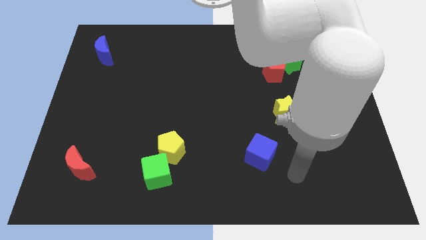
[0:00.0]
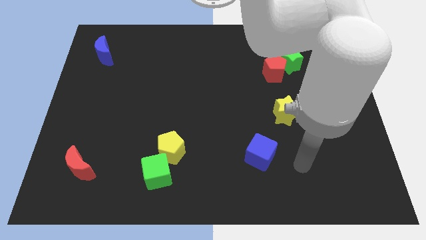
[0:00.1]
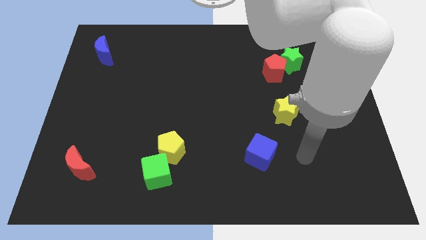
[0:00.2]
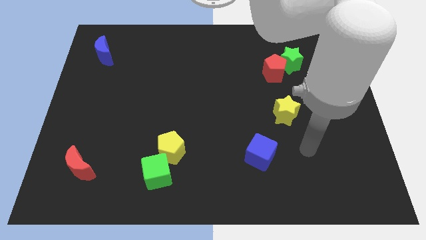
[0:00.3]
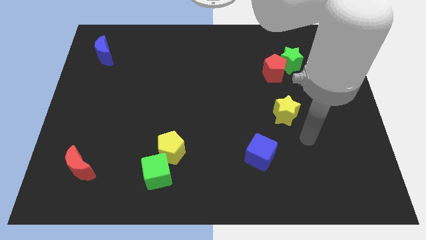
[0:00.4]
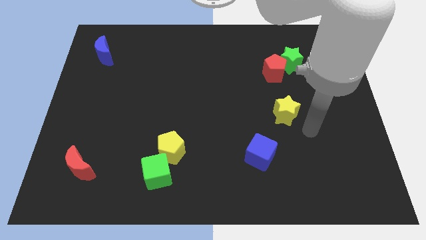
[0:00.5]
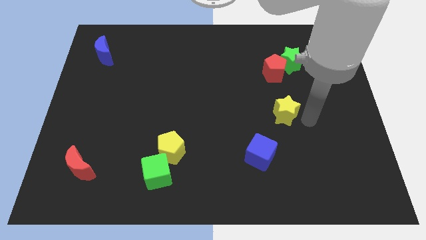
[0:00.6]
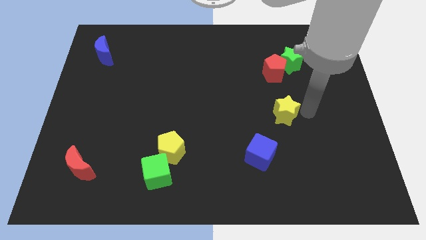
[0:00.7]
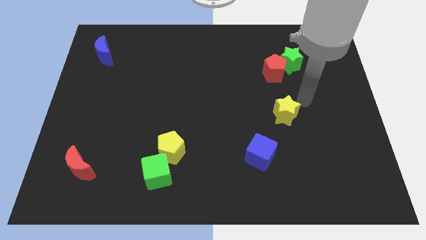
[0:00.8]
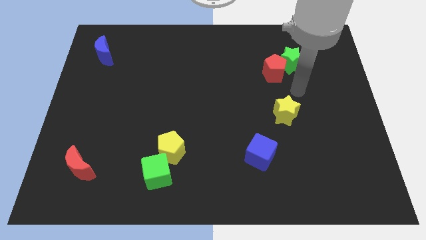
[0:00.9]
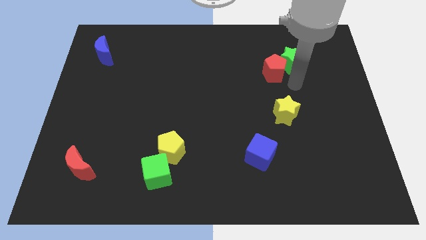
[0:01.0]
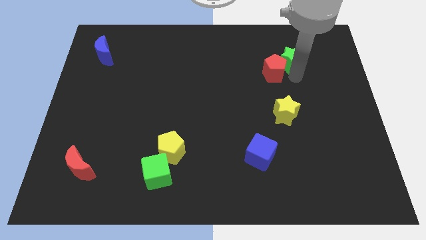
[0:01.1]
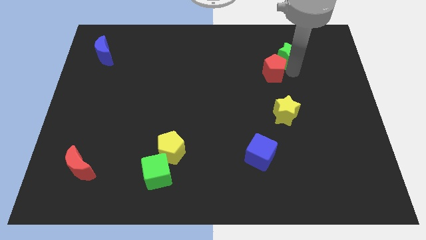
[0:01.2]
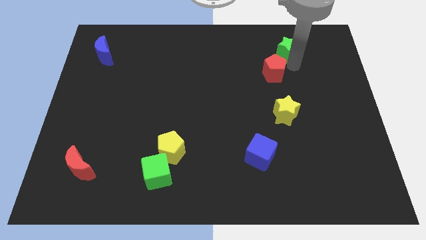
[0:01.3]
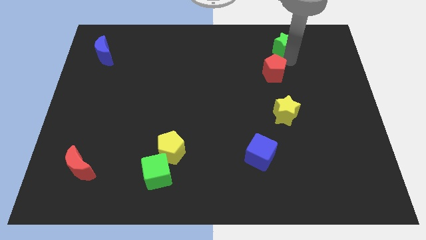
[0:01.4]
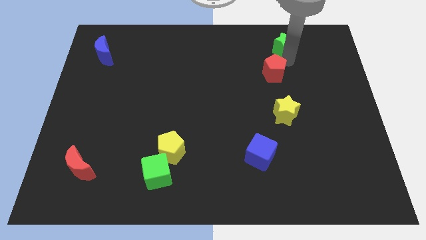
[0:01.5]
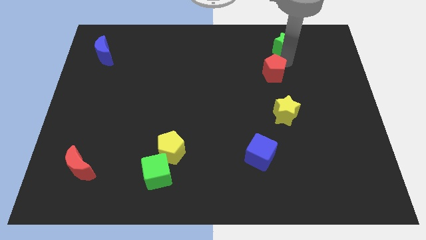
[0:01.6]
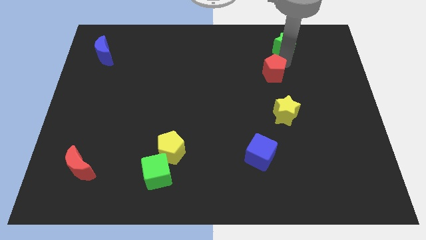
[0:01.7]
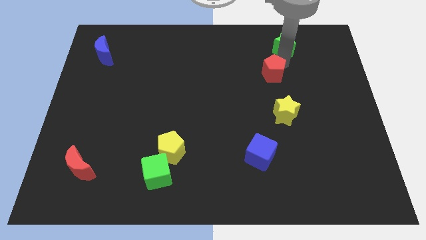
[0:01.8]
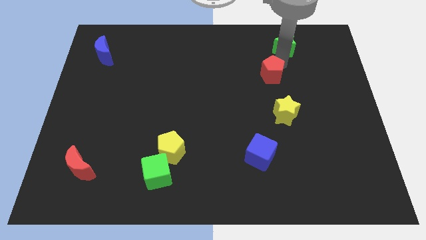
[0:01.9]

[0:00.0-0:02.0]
separate the red pentagon from the green star

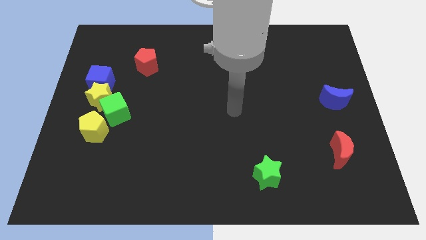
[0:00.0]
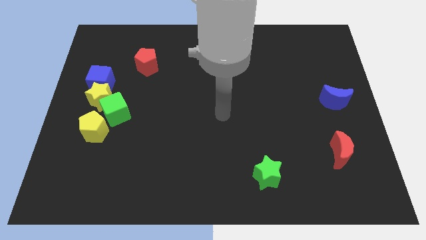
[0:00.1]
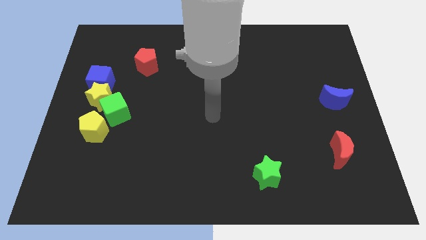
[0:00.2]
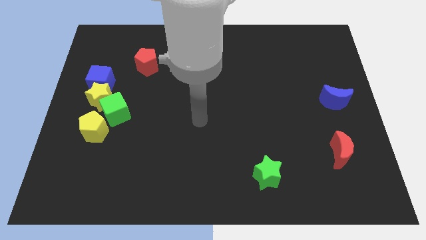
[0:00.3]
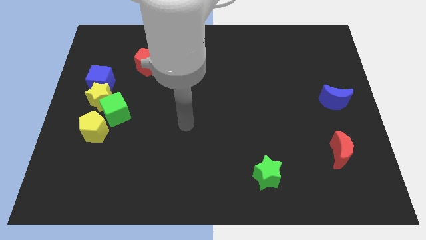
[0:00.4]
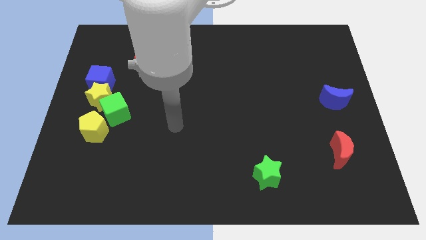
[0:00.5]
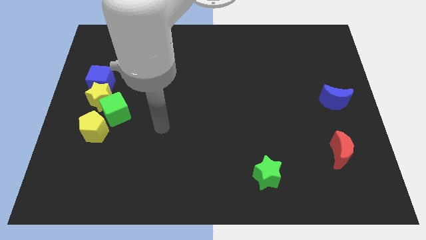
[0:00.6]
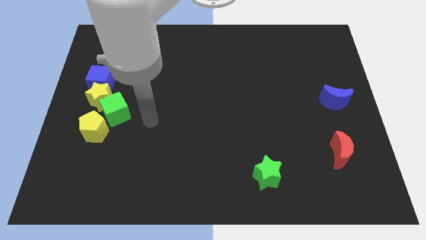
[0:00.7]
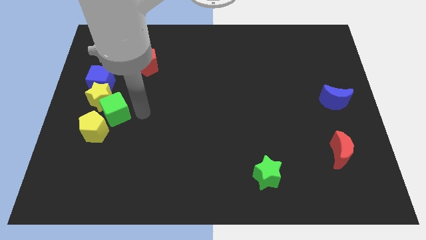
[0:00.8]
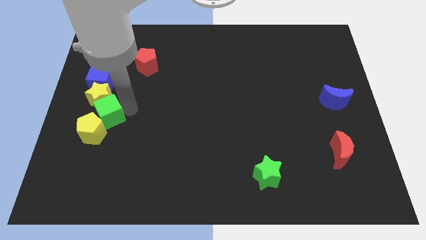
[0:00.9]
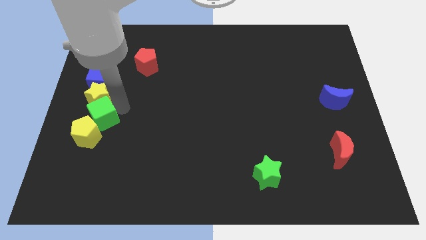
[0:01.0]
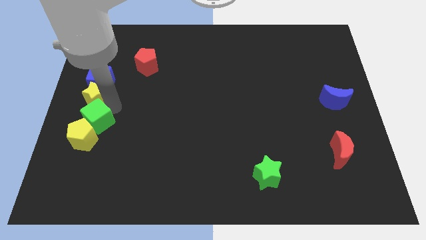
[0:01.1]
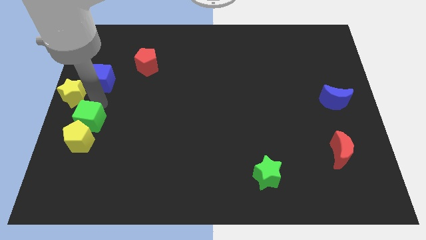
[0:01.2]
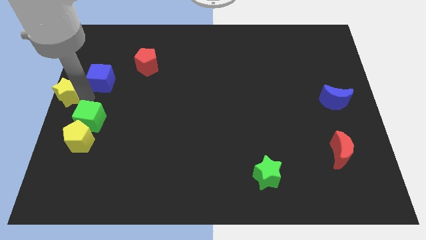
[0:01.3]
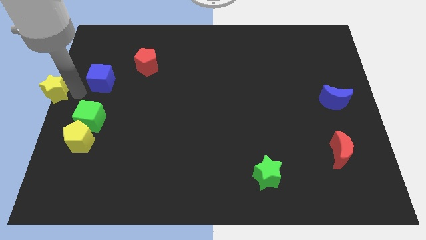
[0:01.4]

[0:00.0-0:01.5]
pull the blue cube apart from the yellow star

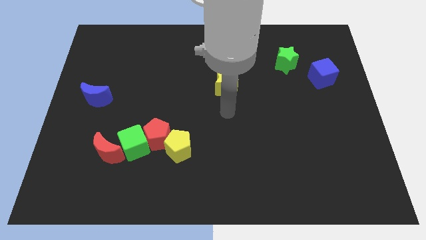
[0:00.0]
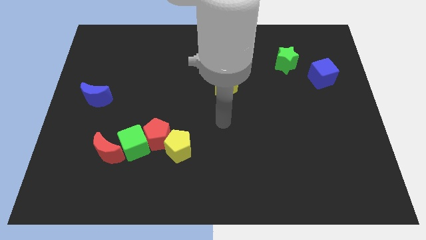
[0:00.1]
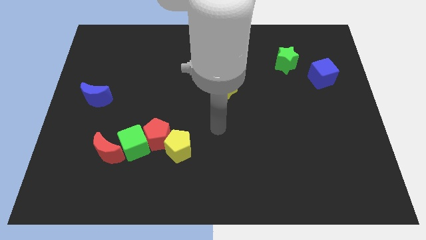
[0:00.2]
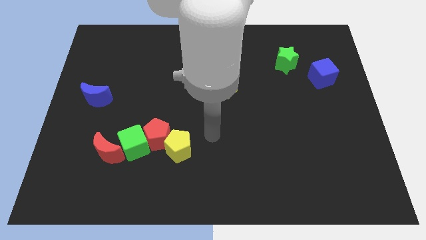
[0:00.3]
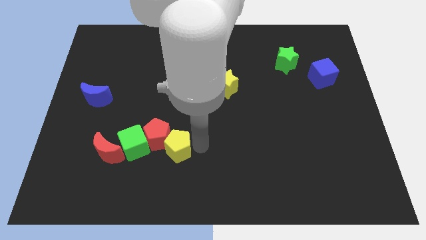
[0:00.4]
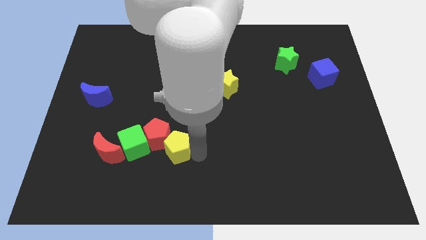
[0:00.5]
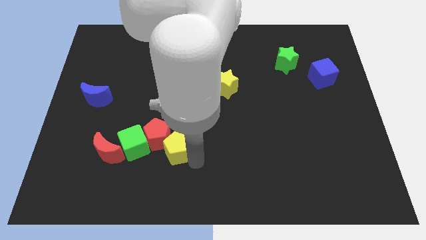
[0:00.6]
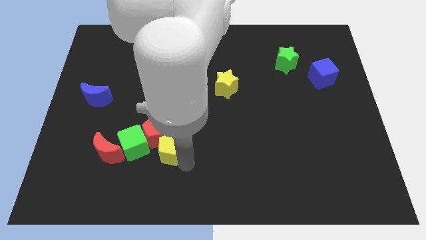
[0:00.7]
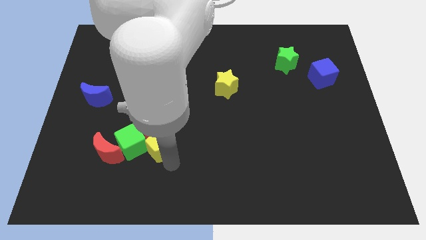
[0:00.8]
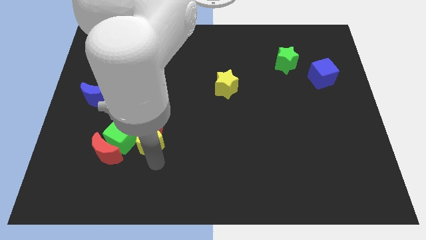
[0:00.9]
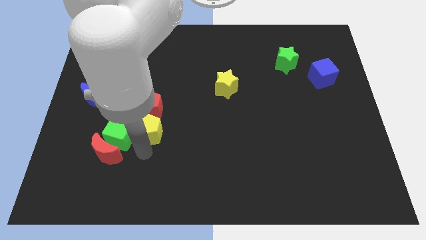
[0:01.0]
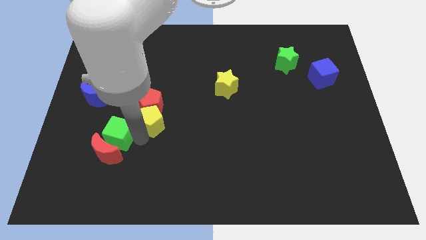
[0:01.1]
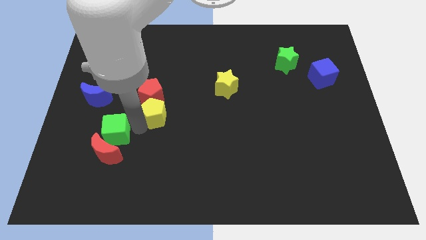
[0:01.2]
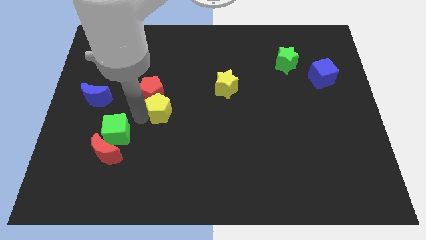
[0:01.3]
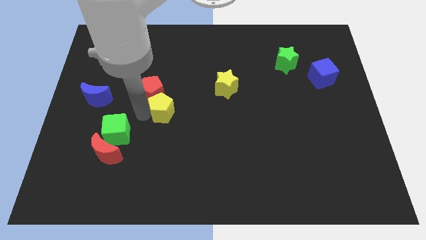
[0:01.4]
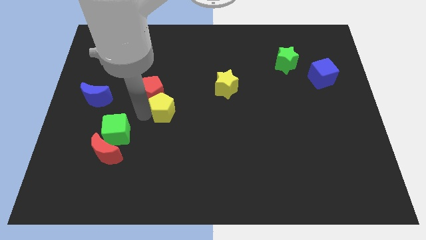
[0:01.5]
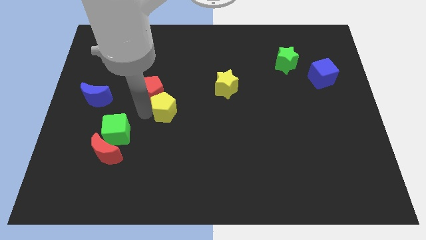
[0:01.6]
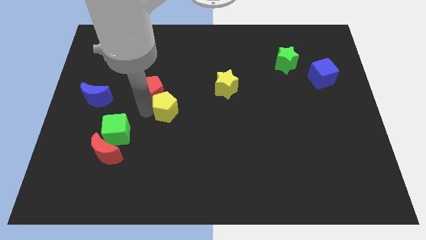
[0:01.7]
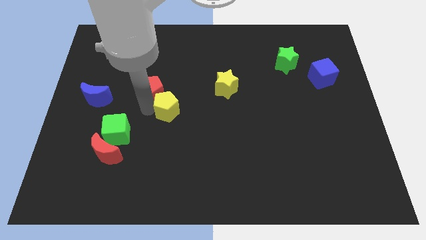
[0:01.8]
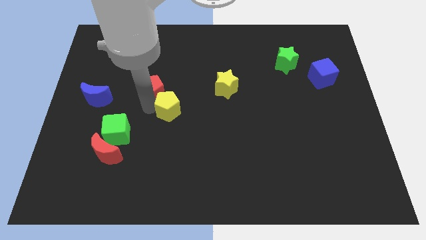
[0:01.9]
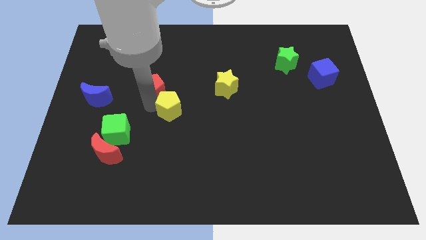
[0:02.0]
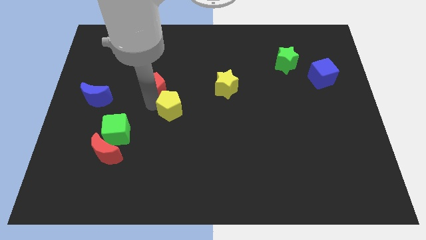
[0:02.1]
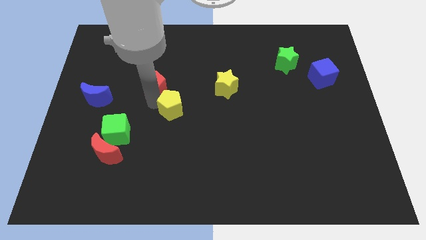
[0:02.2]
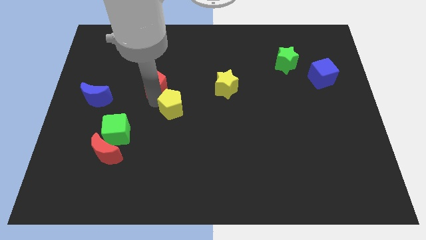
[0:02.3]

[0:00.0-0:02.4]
separate the red pentagon from the yellow pentagon and green cube

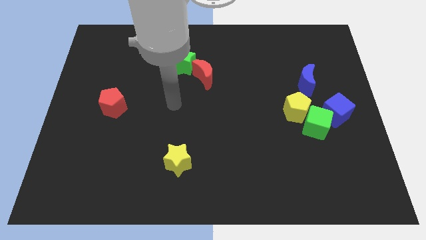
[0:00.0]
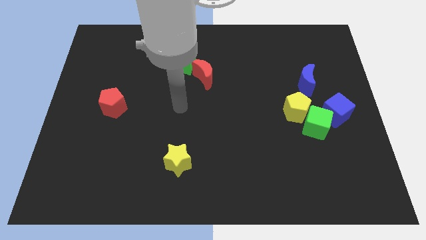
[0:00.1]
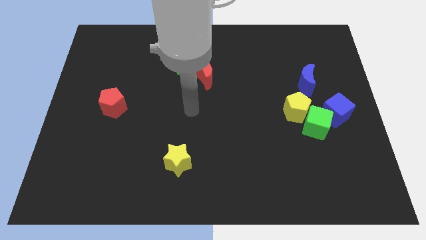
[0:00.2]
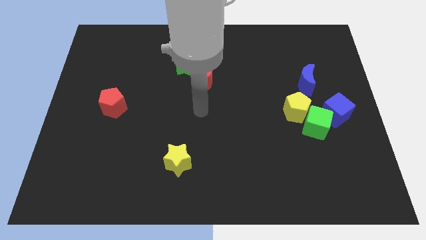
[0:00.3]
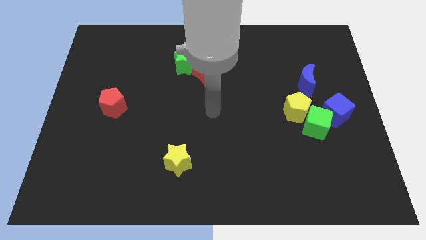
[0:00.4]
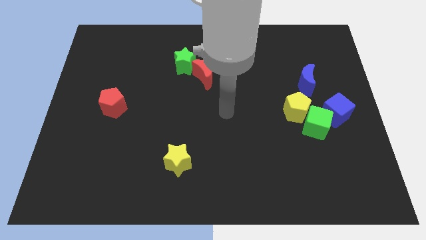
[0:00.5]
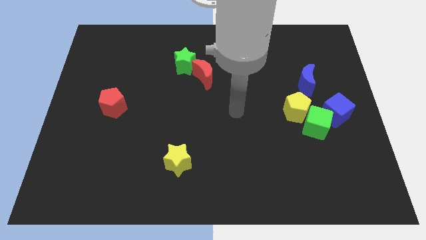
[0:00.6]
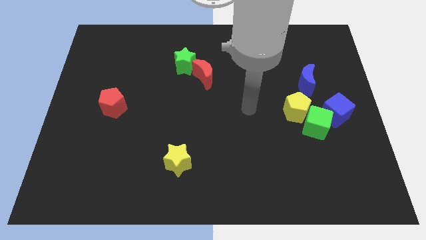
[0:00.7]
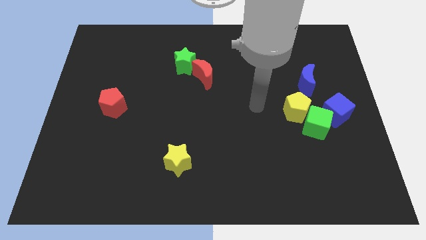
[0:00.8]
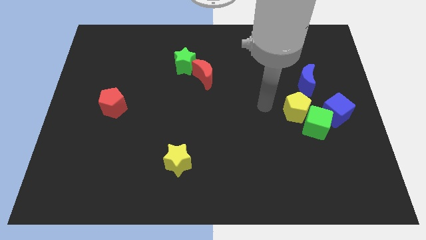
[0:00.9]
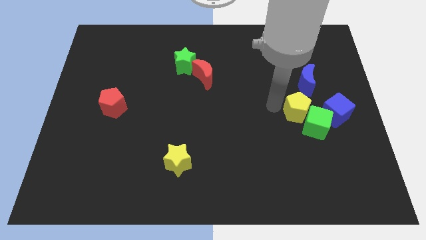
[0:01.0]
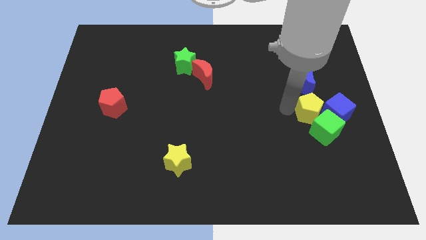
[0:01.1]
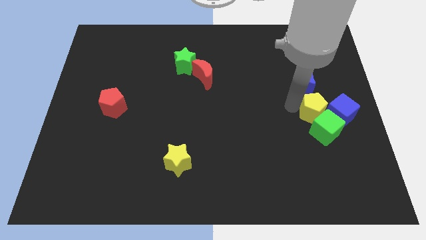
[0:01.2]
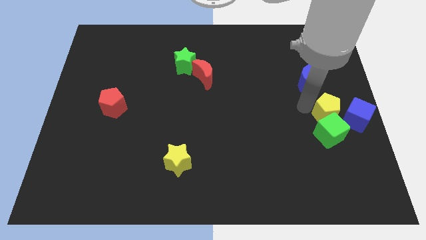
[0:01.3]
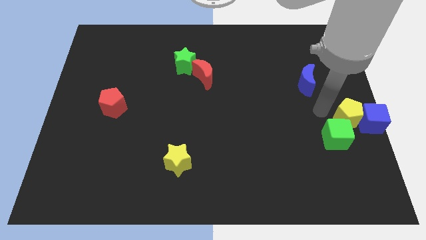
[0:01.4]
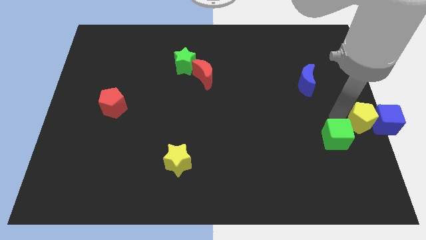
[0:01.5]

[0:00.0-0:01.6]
pull the green cube apart from the yellow pentagon and blue cube

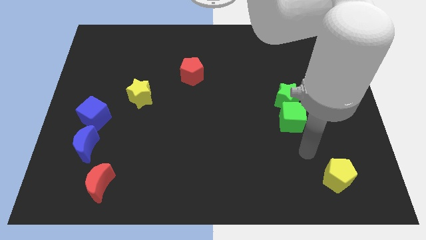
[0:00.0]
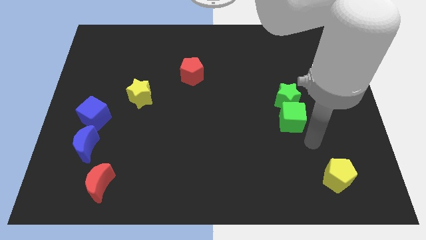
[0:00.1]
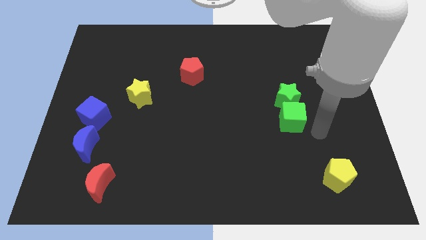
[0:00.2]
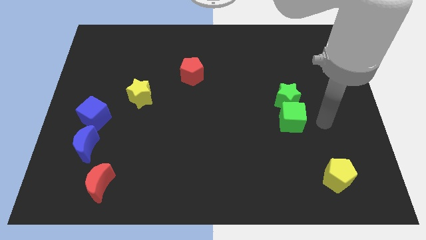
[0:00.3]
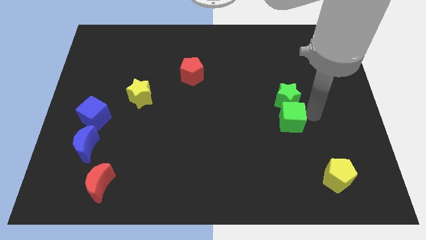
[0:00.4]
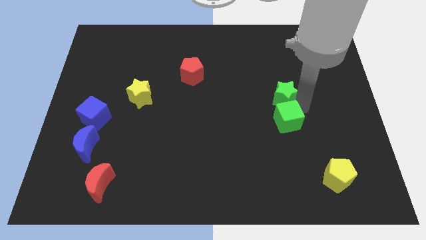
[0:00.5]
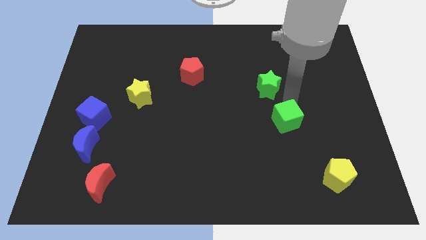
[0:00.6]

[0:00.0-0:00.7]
pull the green cube apart from the green star

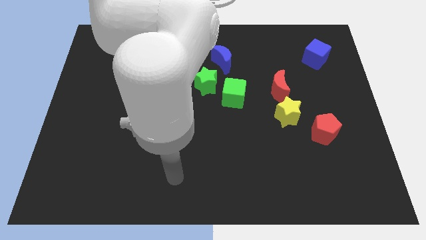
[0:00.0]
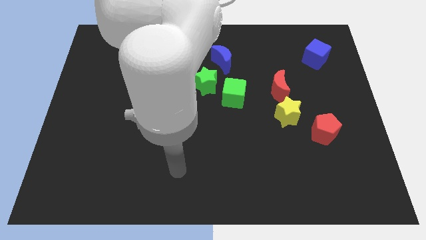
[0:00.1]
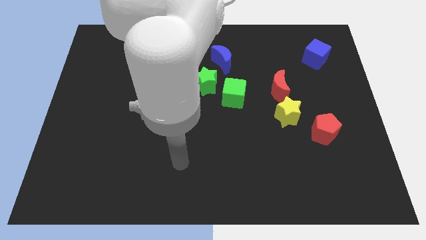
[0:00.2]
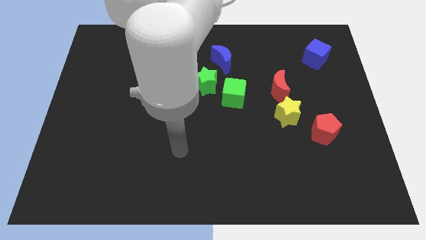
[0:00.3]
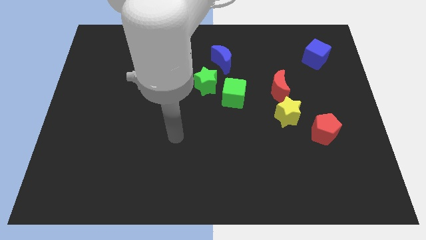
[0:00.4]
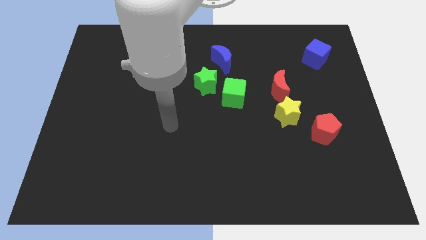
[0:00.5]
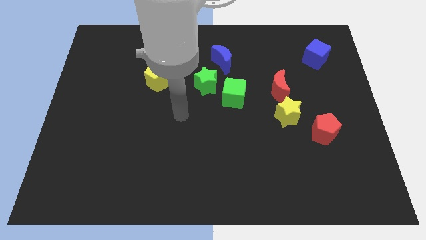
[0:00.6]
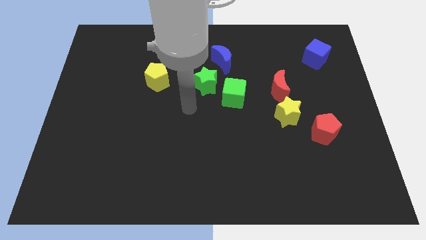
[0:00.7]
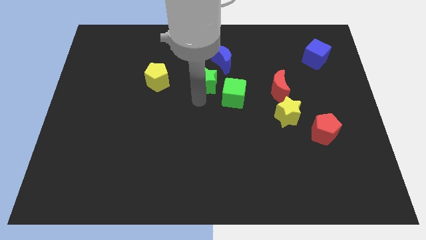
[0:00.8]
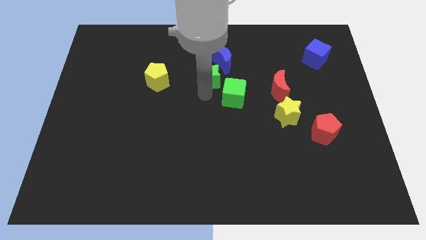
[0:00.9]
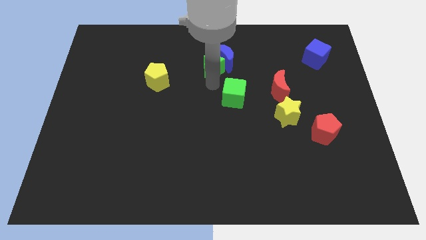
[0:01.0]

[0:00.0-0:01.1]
move the green cube away from the green star

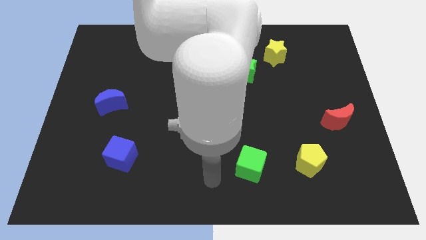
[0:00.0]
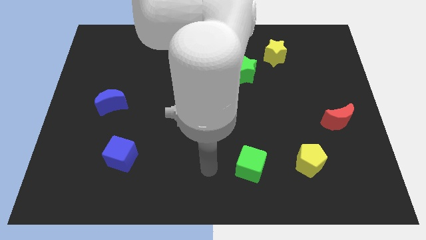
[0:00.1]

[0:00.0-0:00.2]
move the green star away from the yellow star

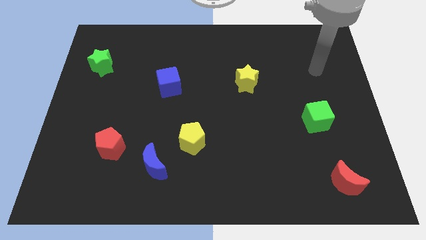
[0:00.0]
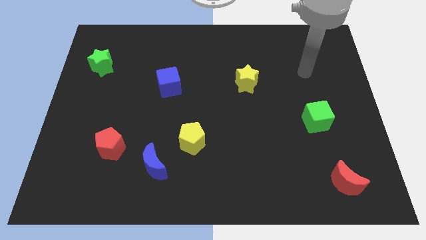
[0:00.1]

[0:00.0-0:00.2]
move the blue moon away from the yellow pentagon
